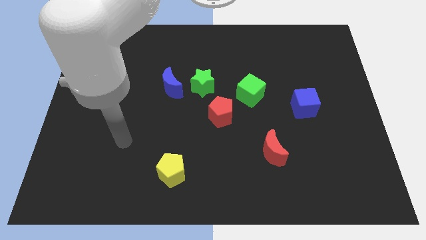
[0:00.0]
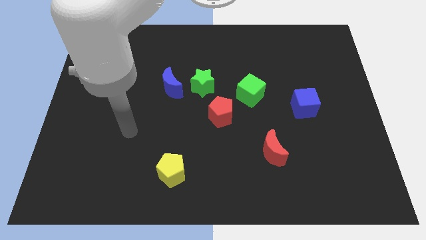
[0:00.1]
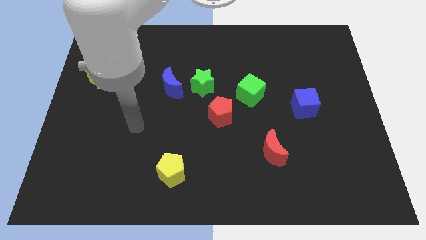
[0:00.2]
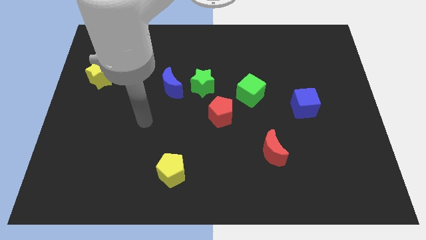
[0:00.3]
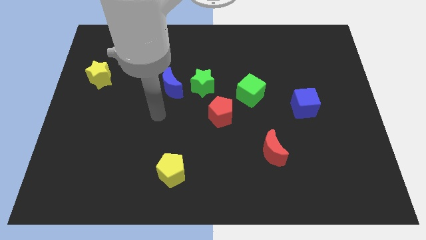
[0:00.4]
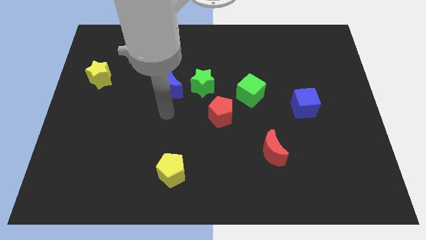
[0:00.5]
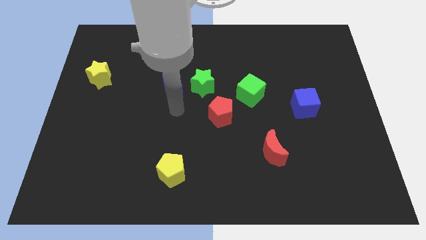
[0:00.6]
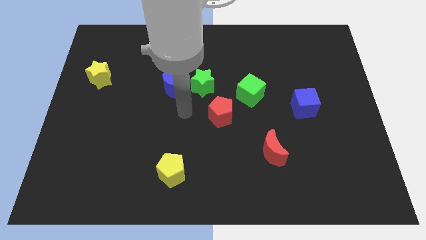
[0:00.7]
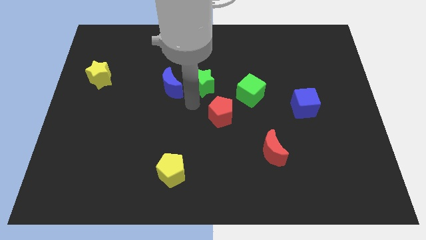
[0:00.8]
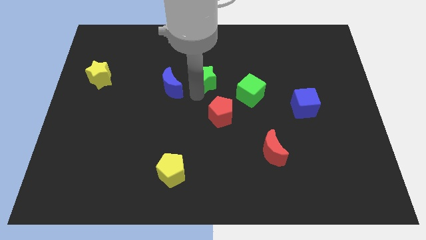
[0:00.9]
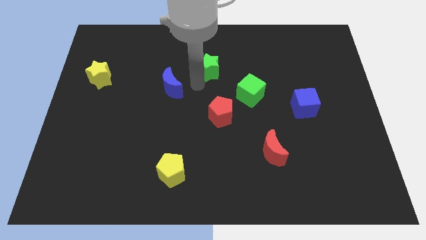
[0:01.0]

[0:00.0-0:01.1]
move the blue moon away from the green star

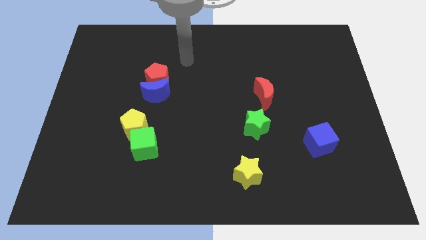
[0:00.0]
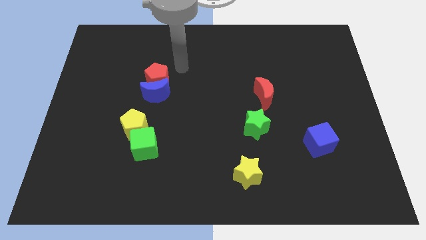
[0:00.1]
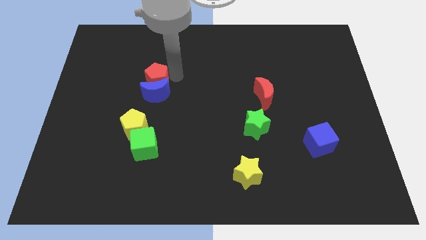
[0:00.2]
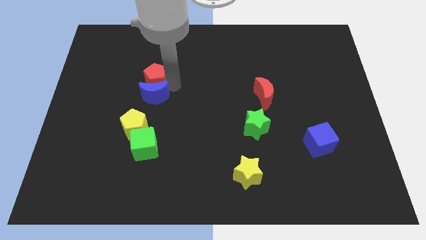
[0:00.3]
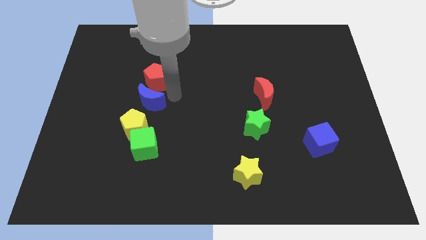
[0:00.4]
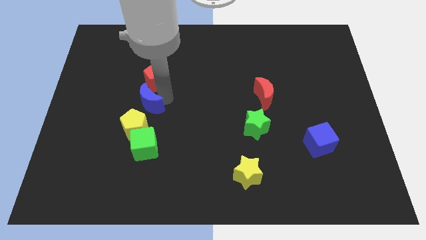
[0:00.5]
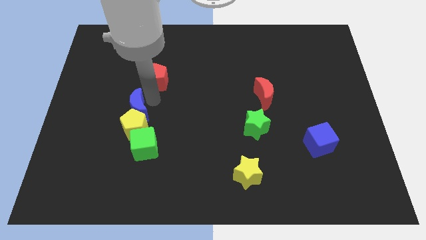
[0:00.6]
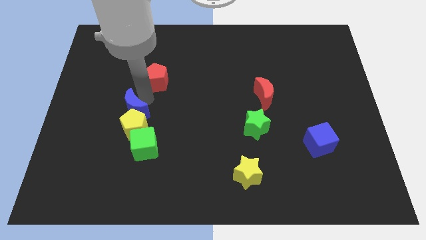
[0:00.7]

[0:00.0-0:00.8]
pull the red pentagon apart from the blue moon

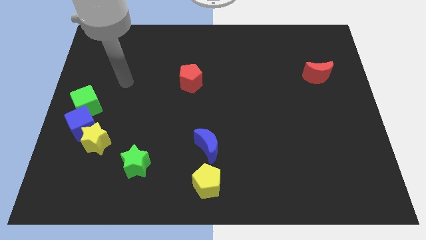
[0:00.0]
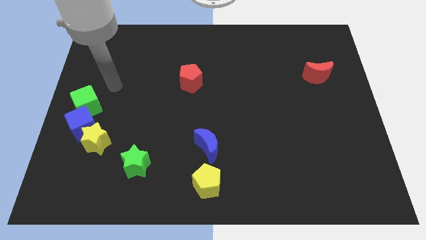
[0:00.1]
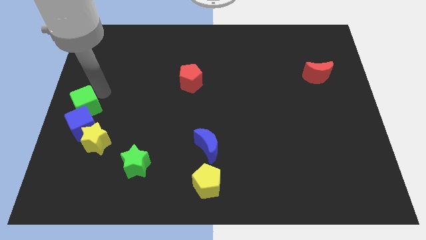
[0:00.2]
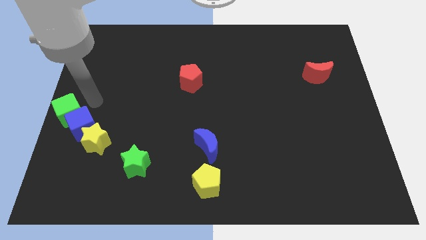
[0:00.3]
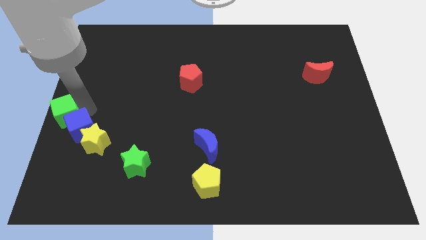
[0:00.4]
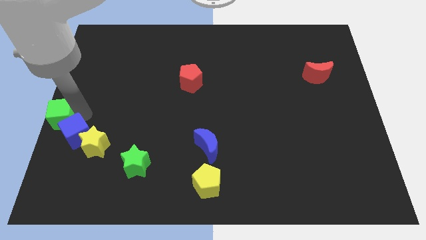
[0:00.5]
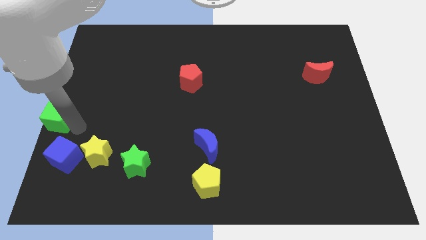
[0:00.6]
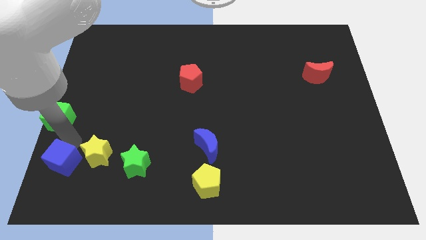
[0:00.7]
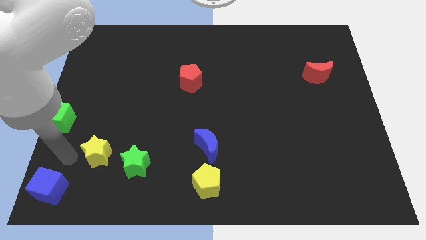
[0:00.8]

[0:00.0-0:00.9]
separate the yellow star from the blue cube

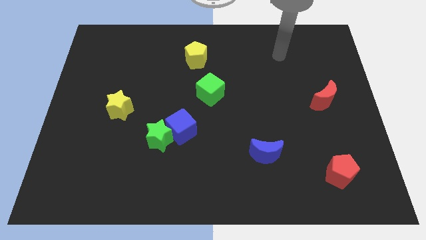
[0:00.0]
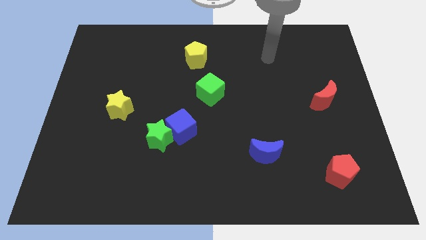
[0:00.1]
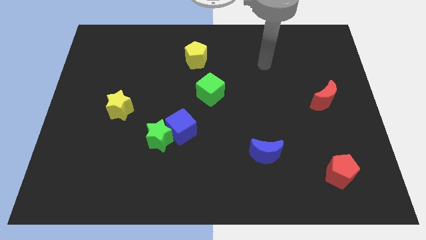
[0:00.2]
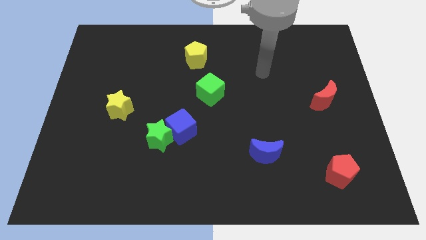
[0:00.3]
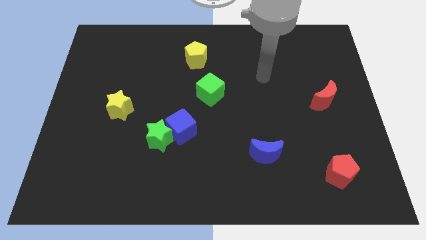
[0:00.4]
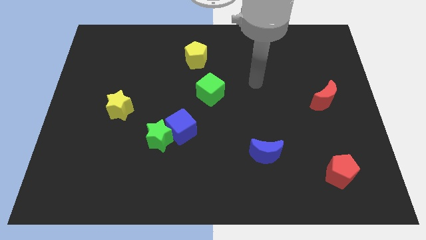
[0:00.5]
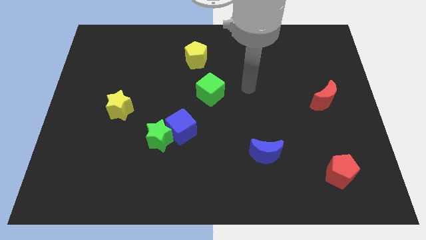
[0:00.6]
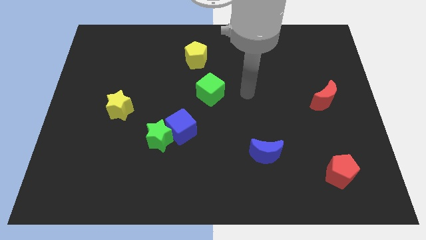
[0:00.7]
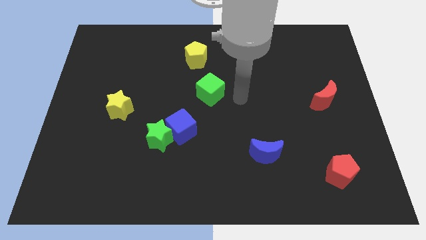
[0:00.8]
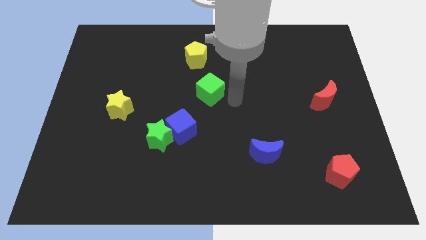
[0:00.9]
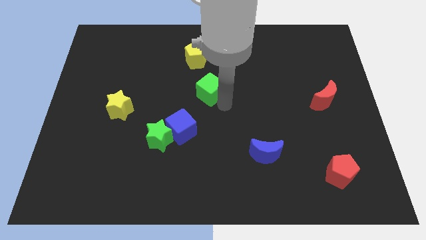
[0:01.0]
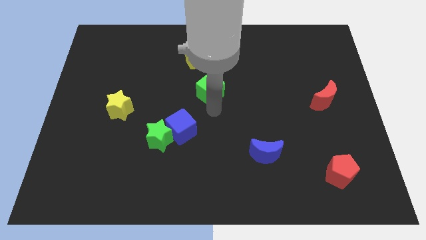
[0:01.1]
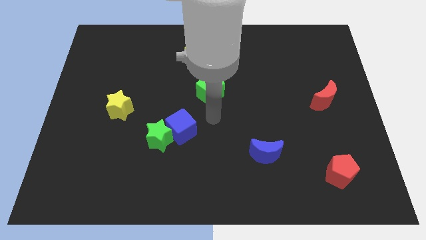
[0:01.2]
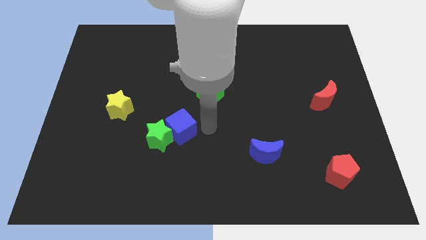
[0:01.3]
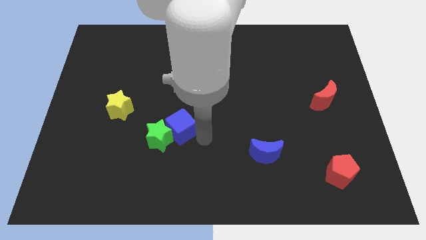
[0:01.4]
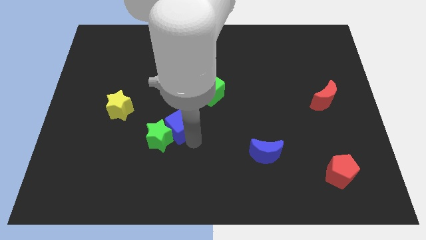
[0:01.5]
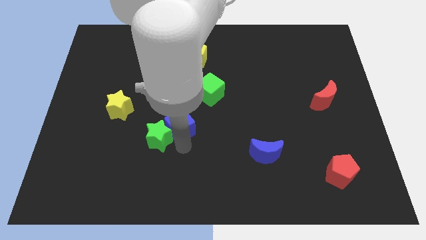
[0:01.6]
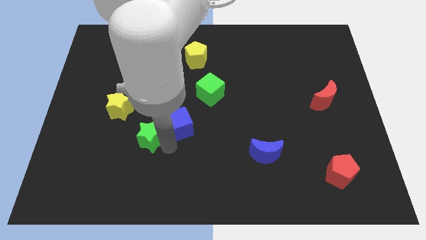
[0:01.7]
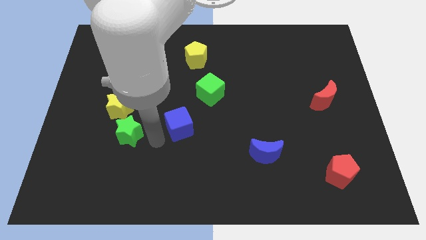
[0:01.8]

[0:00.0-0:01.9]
move the blue cube away from the green star

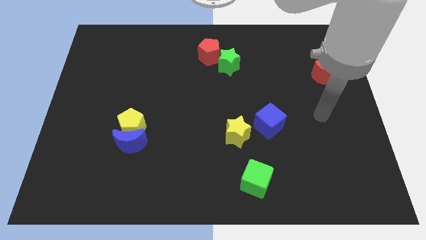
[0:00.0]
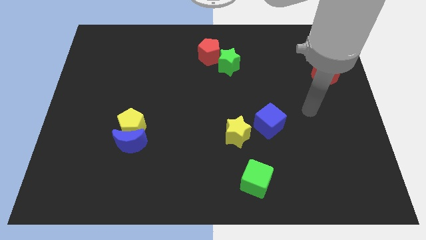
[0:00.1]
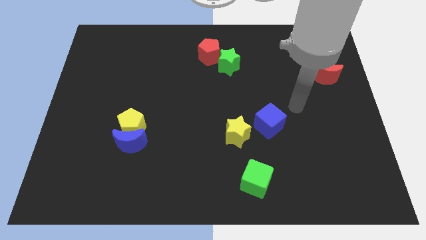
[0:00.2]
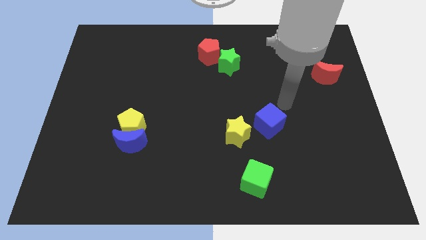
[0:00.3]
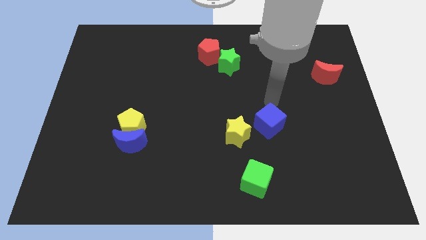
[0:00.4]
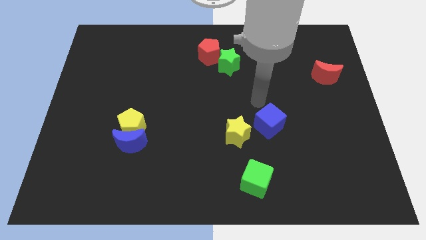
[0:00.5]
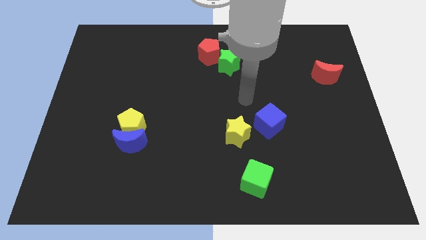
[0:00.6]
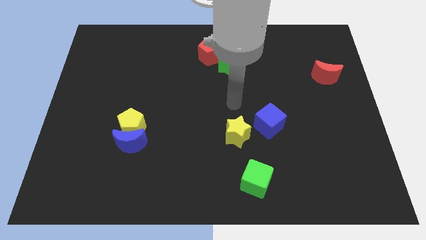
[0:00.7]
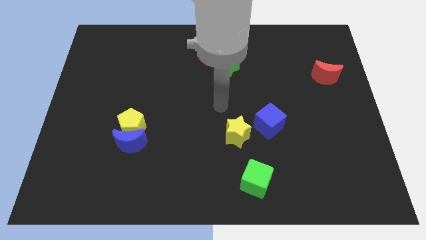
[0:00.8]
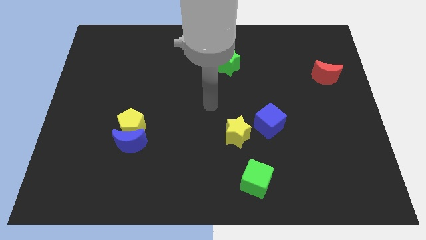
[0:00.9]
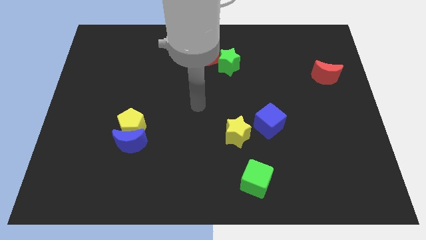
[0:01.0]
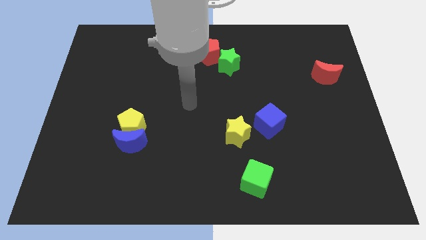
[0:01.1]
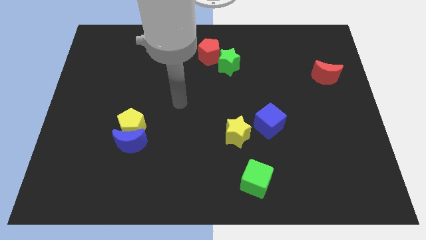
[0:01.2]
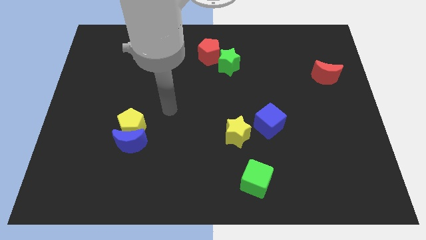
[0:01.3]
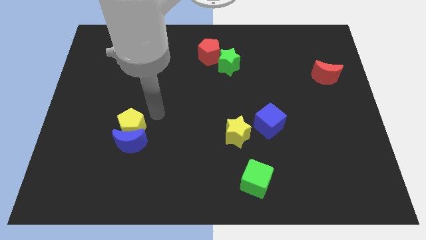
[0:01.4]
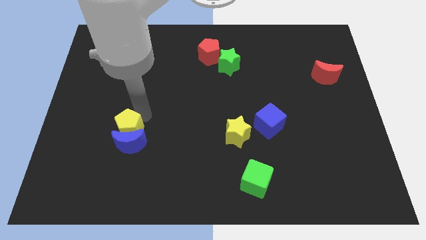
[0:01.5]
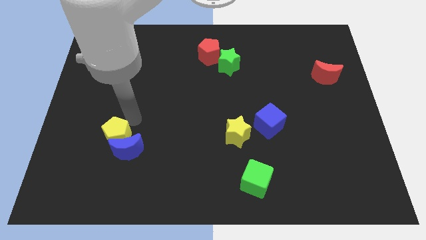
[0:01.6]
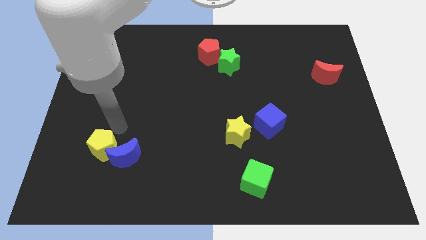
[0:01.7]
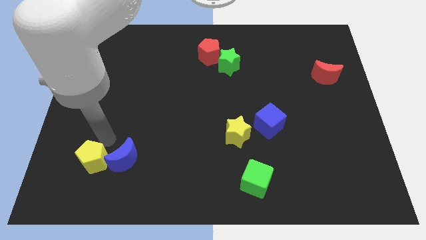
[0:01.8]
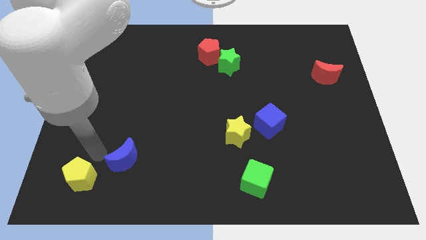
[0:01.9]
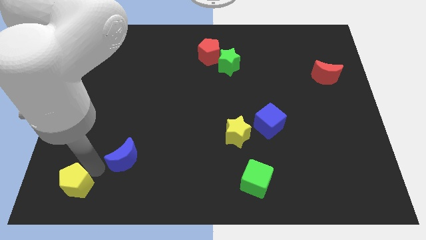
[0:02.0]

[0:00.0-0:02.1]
separate the blue moon from the yellow pentagon

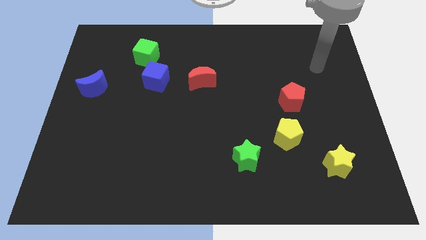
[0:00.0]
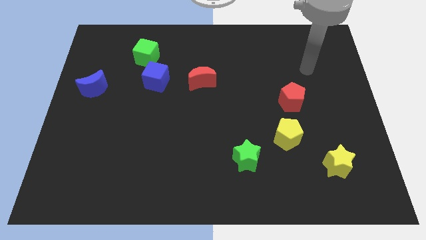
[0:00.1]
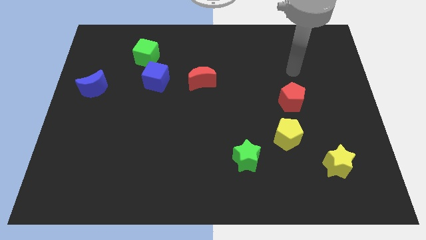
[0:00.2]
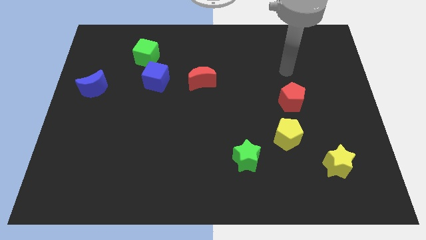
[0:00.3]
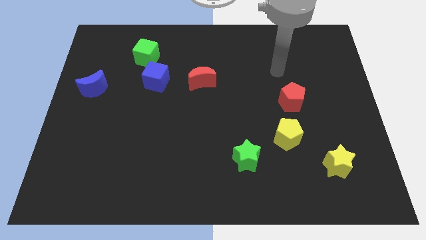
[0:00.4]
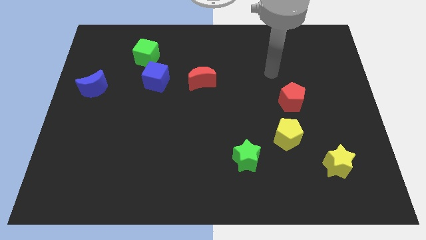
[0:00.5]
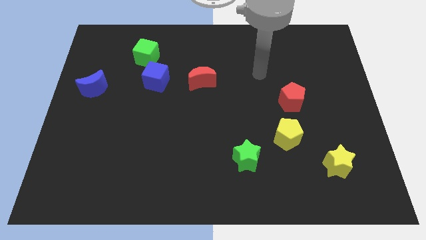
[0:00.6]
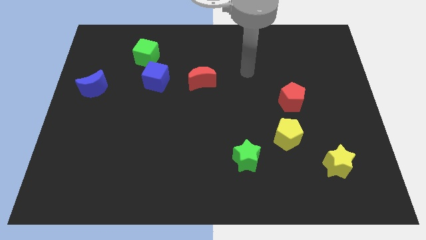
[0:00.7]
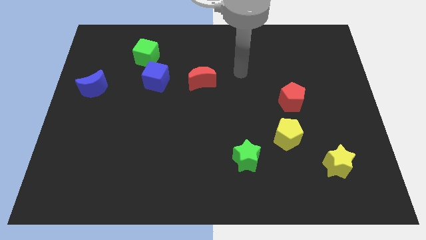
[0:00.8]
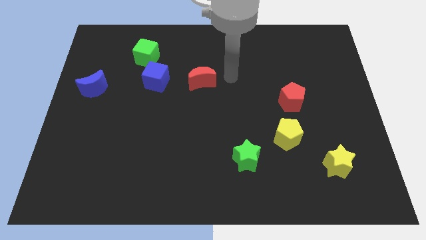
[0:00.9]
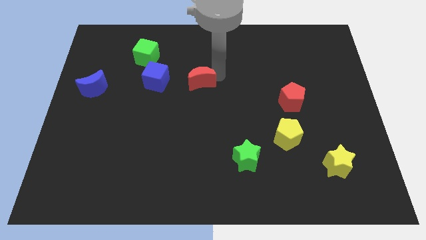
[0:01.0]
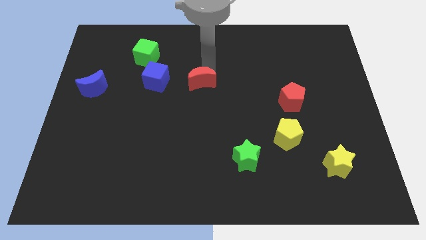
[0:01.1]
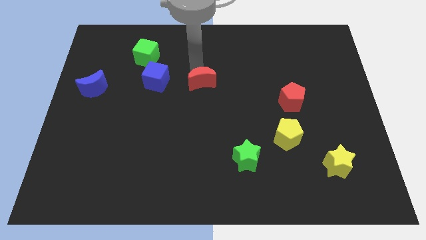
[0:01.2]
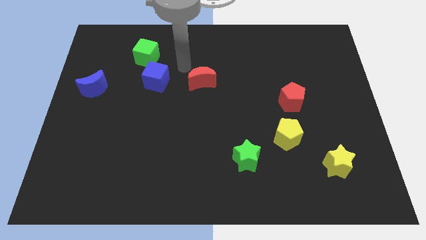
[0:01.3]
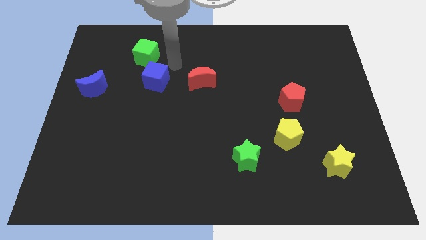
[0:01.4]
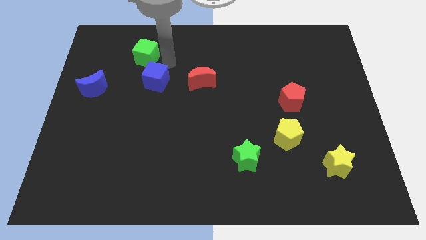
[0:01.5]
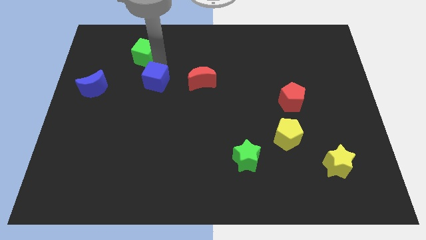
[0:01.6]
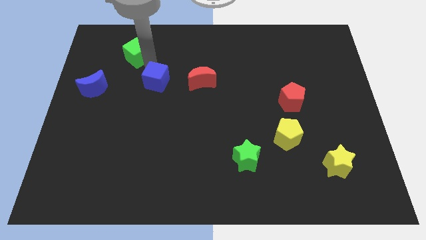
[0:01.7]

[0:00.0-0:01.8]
separate the blue cube from the green cube

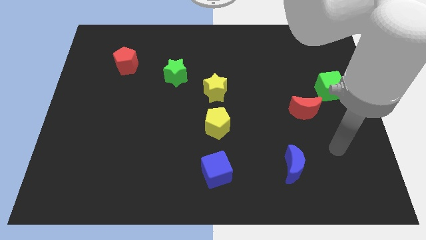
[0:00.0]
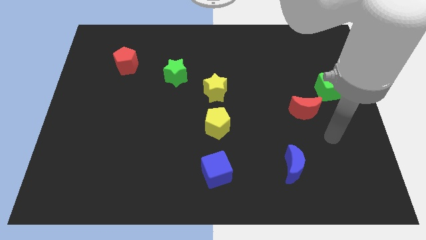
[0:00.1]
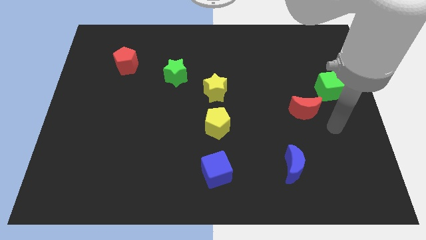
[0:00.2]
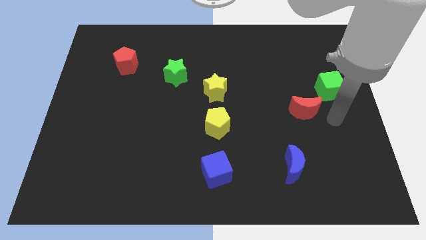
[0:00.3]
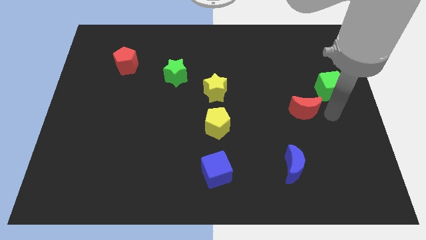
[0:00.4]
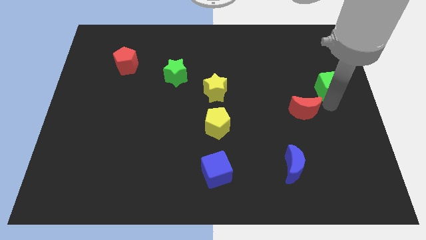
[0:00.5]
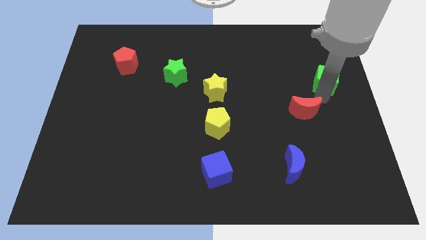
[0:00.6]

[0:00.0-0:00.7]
pull the red moon apart from the green cube
